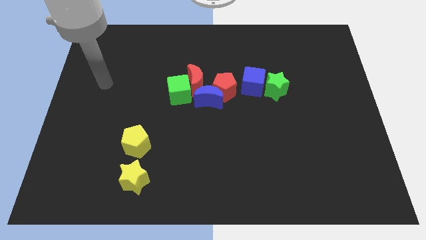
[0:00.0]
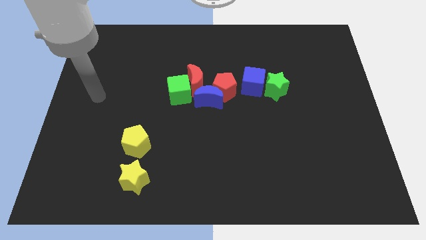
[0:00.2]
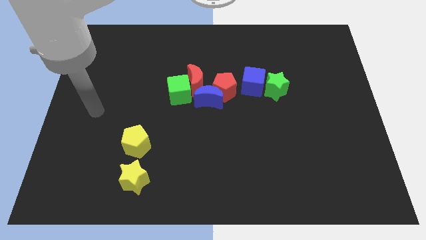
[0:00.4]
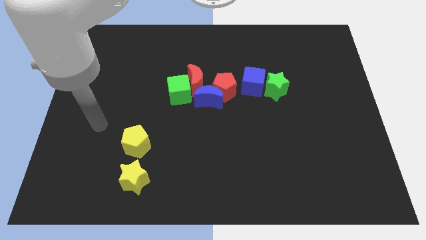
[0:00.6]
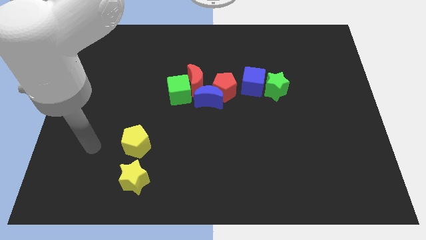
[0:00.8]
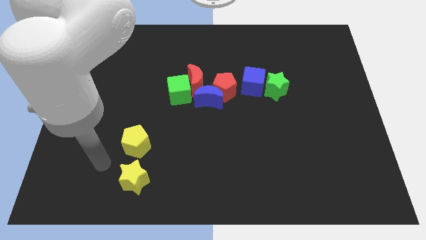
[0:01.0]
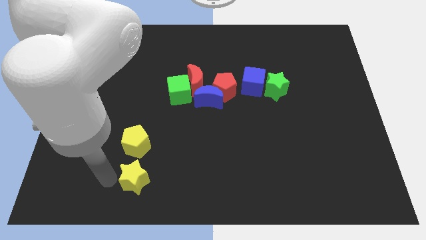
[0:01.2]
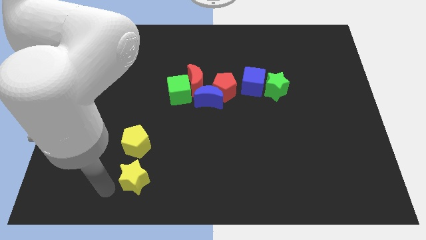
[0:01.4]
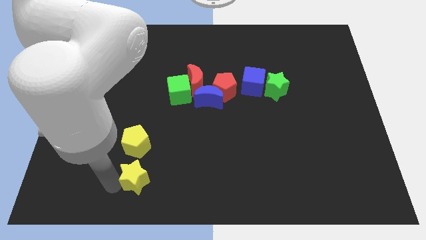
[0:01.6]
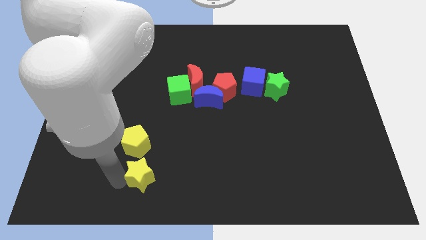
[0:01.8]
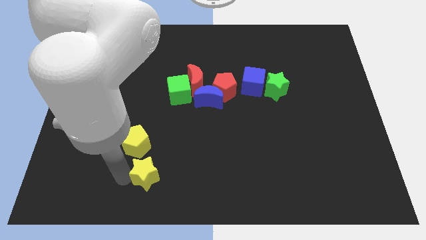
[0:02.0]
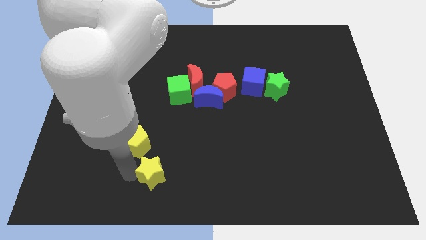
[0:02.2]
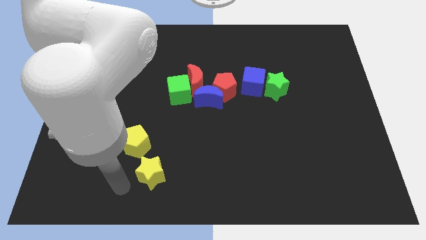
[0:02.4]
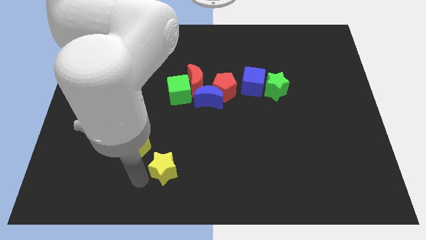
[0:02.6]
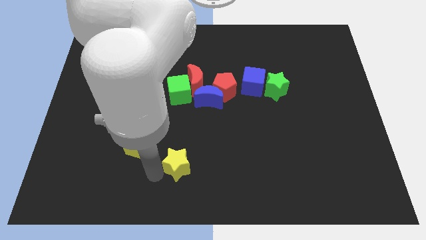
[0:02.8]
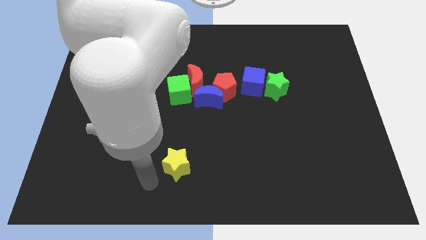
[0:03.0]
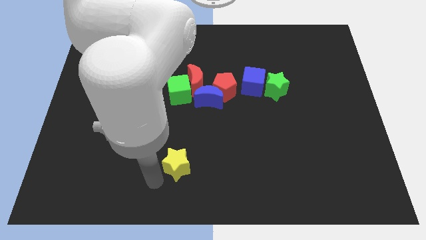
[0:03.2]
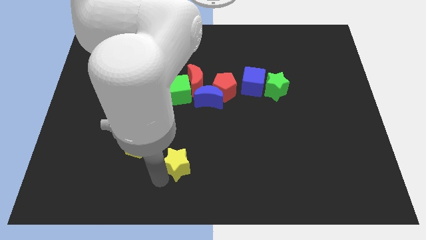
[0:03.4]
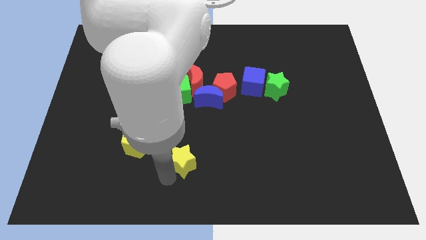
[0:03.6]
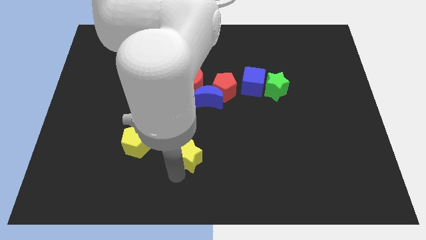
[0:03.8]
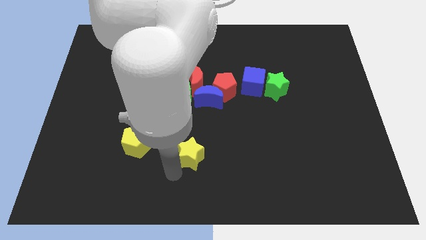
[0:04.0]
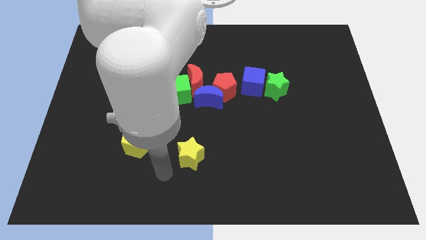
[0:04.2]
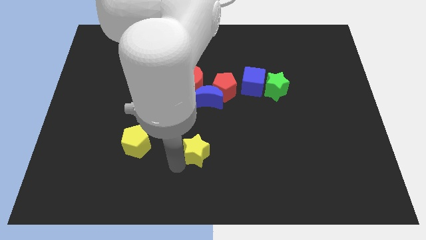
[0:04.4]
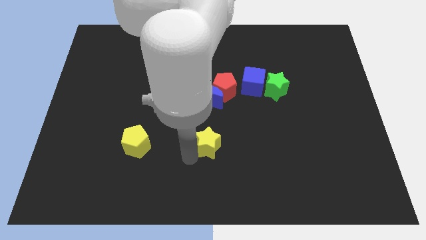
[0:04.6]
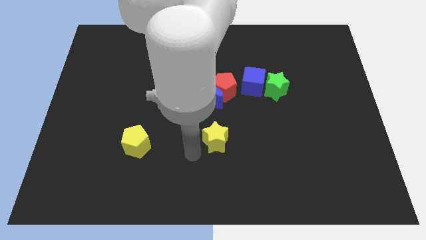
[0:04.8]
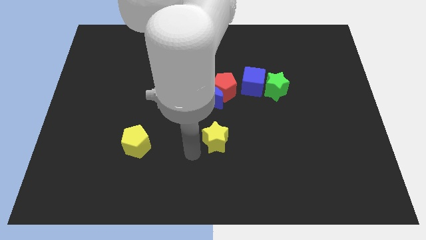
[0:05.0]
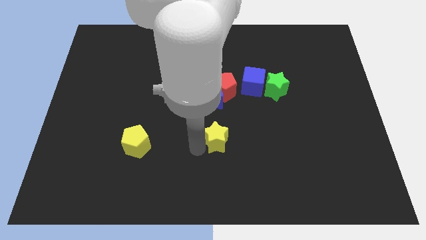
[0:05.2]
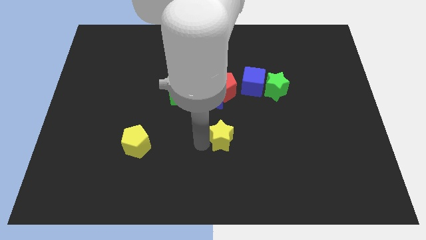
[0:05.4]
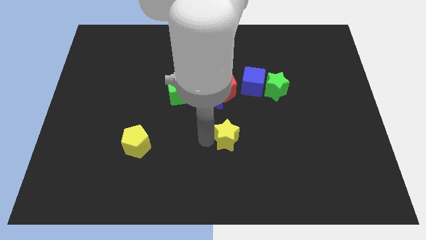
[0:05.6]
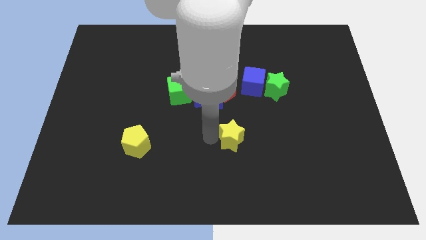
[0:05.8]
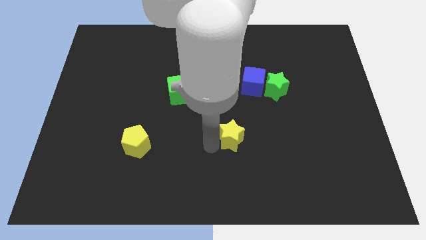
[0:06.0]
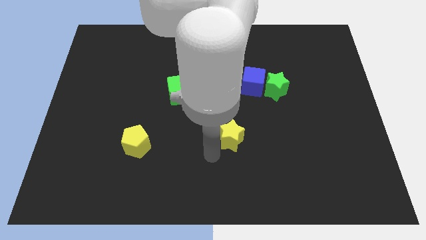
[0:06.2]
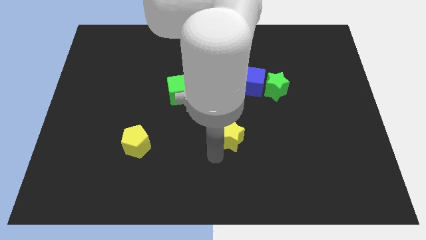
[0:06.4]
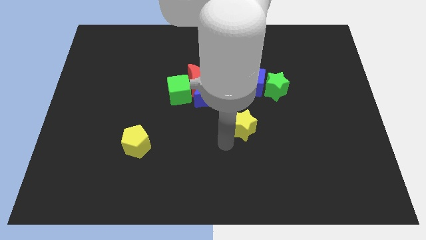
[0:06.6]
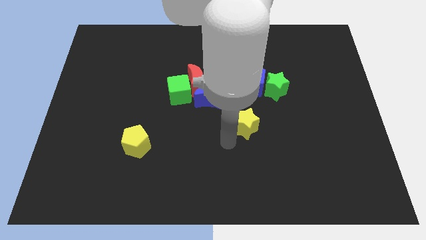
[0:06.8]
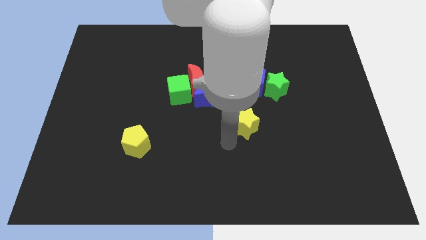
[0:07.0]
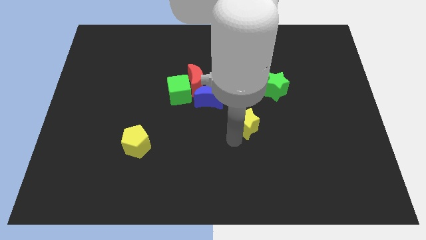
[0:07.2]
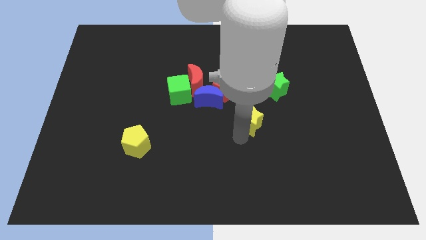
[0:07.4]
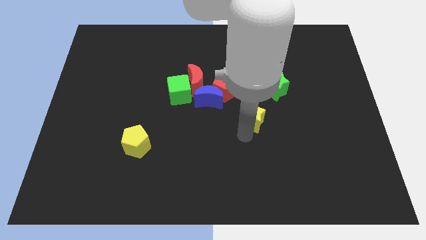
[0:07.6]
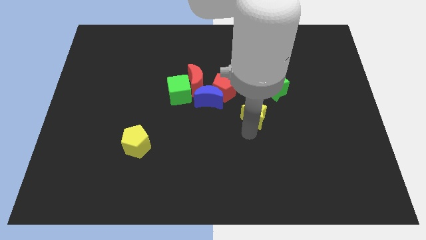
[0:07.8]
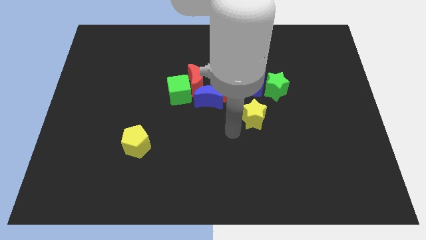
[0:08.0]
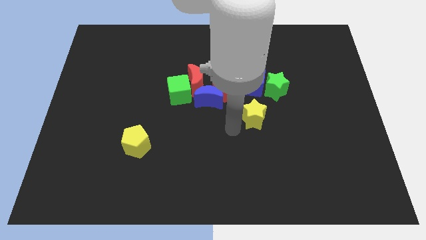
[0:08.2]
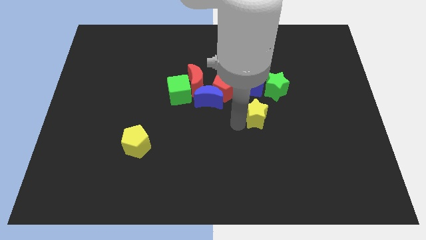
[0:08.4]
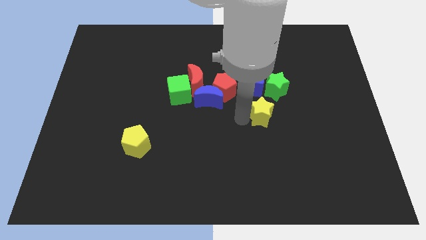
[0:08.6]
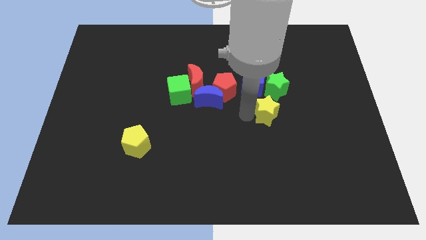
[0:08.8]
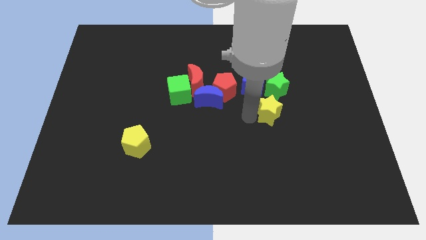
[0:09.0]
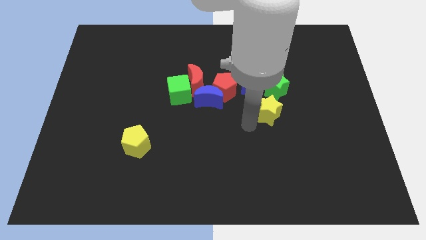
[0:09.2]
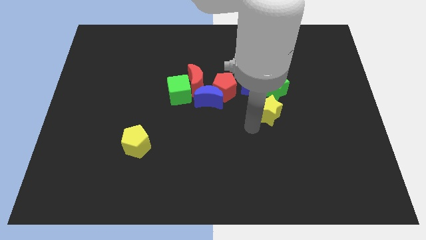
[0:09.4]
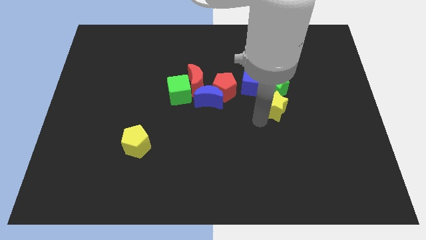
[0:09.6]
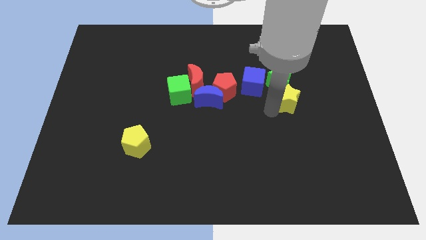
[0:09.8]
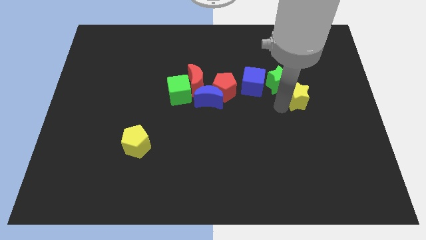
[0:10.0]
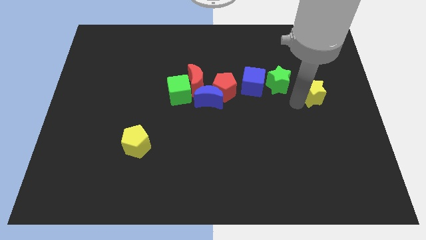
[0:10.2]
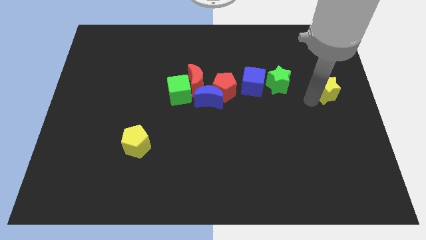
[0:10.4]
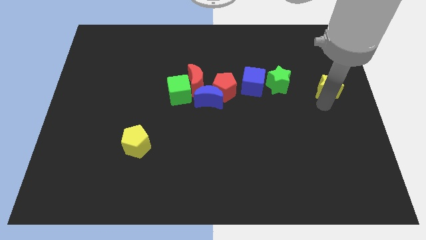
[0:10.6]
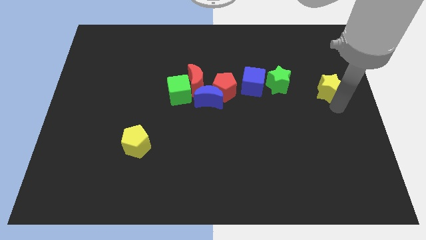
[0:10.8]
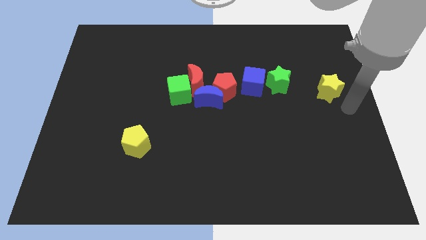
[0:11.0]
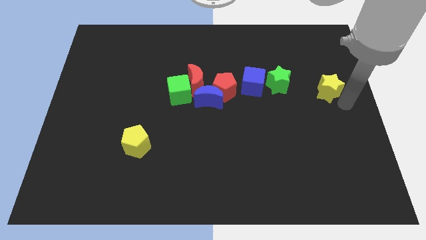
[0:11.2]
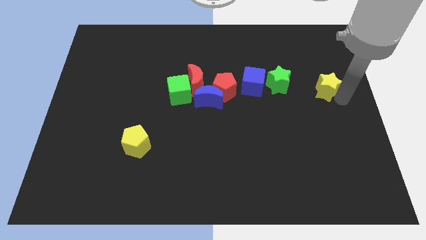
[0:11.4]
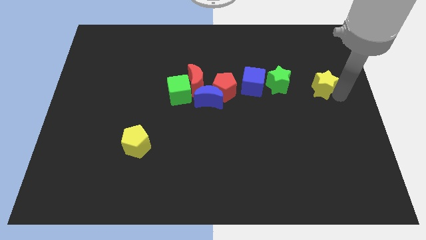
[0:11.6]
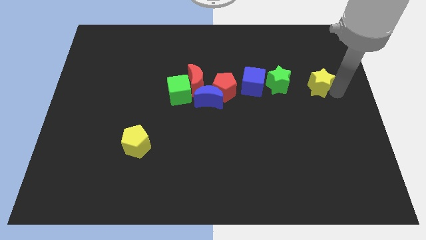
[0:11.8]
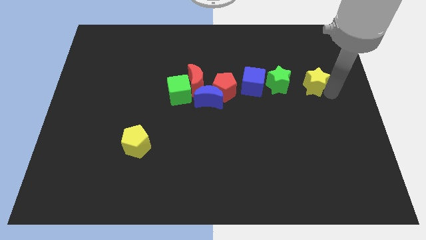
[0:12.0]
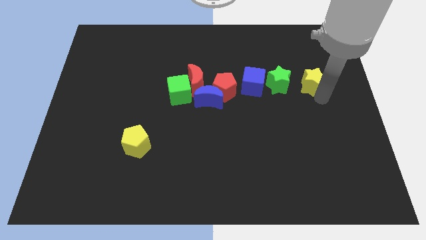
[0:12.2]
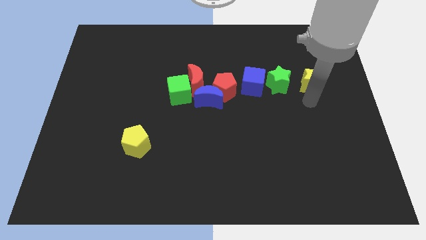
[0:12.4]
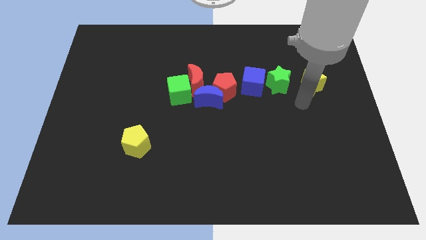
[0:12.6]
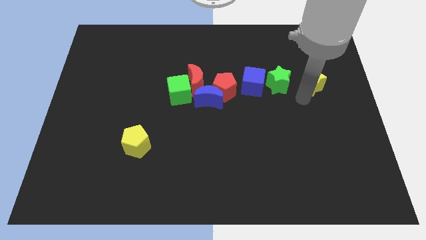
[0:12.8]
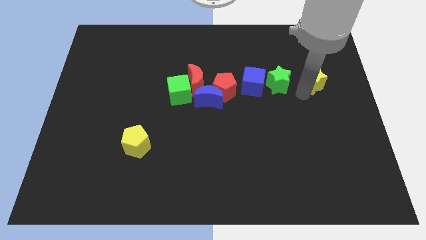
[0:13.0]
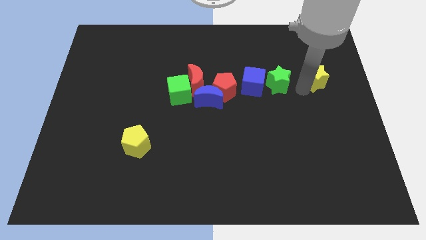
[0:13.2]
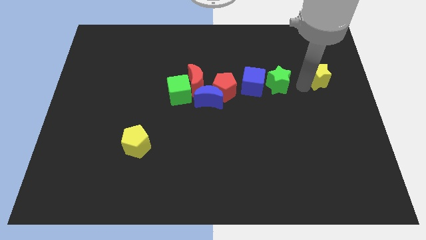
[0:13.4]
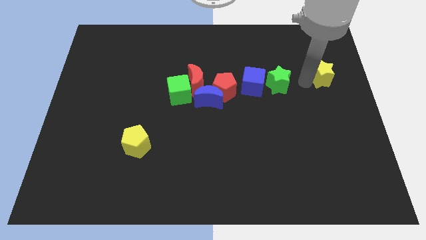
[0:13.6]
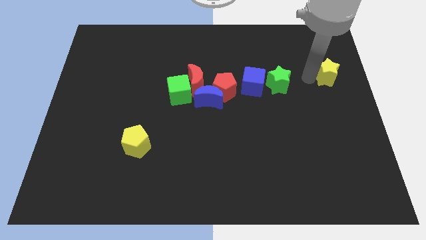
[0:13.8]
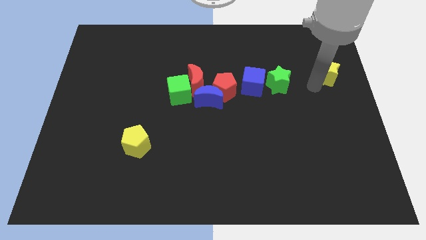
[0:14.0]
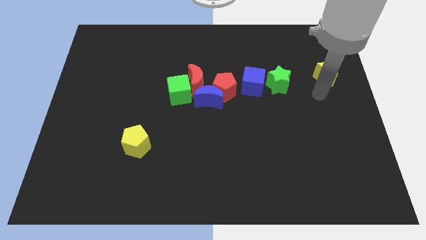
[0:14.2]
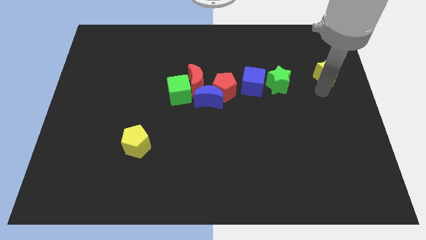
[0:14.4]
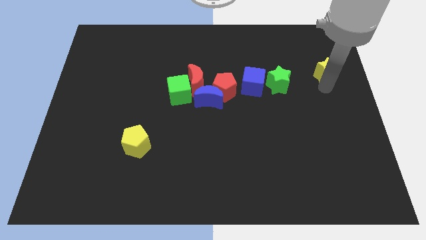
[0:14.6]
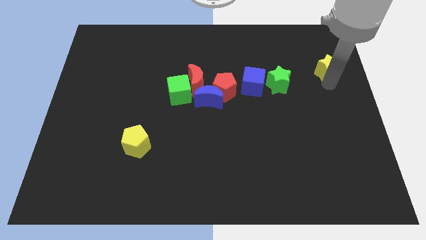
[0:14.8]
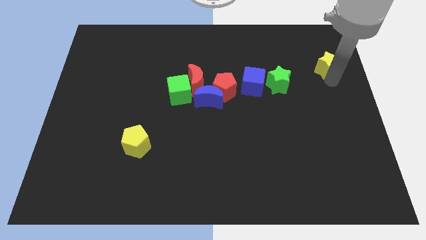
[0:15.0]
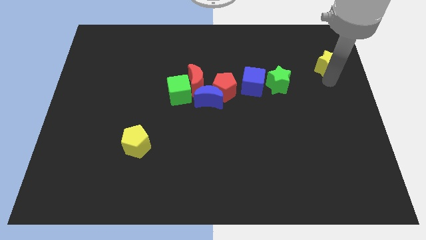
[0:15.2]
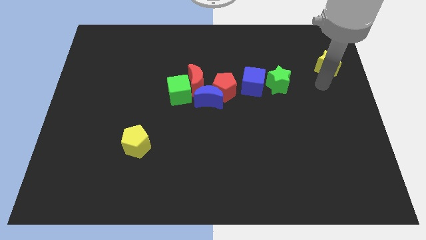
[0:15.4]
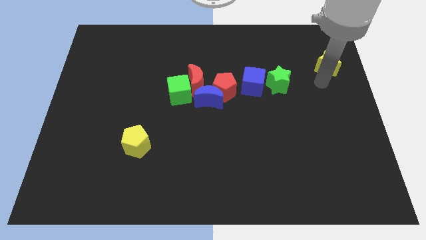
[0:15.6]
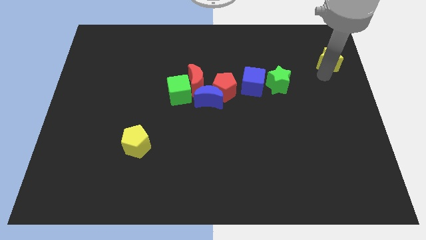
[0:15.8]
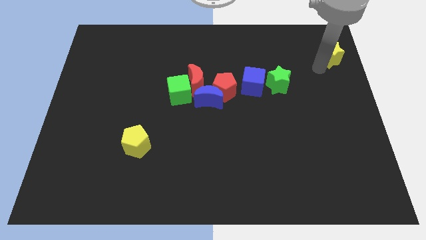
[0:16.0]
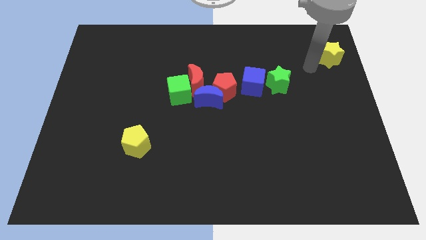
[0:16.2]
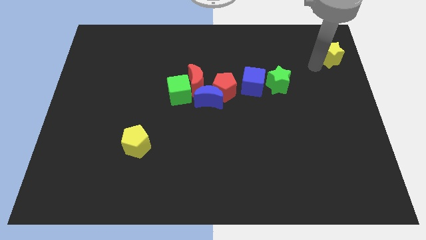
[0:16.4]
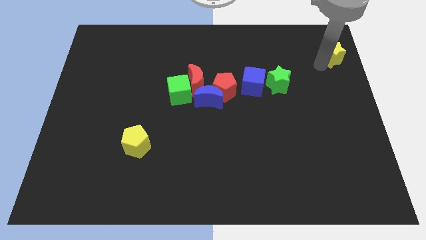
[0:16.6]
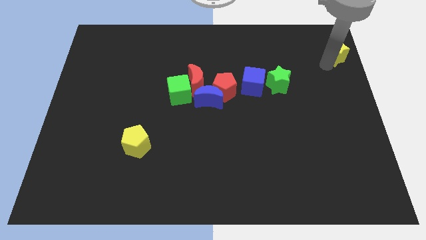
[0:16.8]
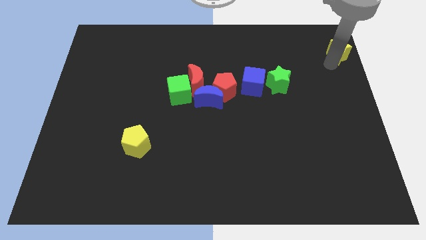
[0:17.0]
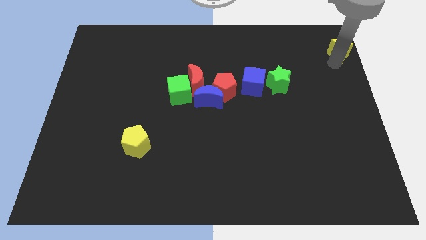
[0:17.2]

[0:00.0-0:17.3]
move the yellow star to the top right of the board
